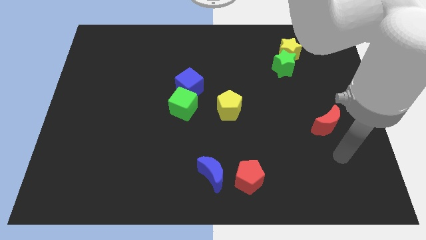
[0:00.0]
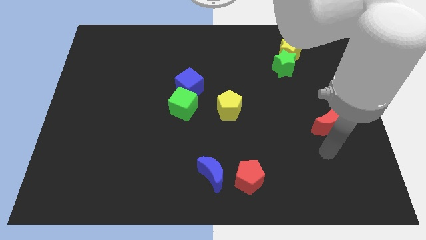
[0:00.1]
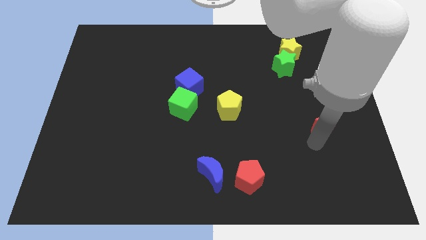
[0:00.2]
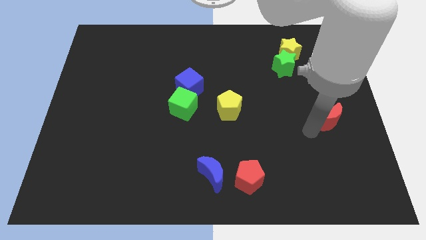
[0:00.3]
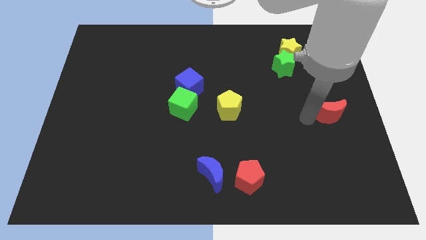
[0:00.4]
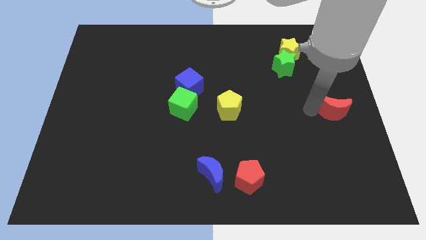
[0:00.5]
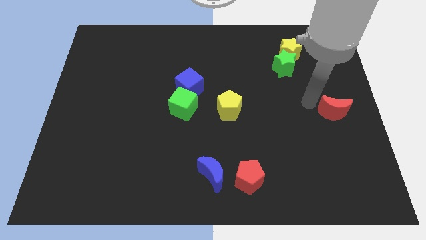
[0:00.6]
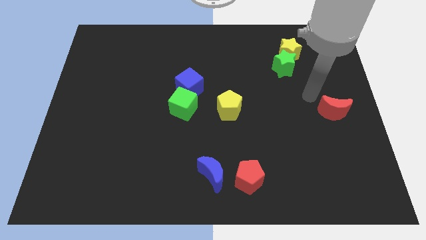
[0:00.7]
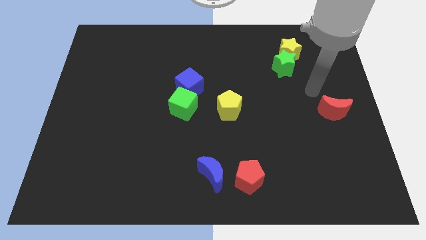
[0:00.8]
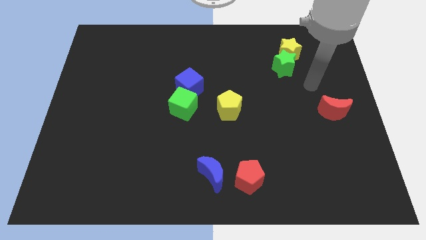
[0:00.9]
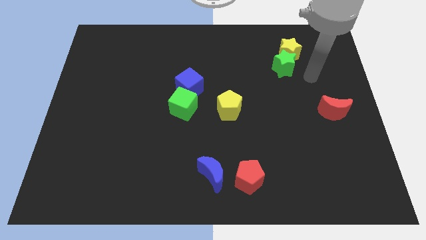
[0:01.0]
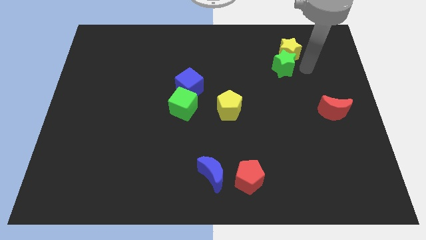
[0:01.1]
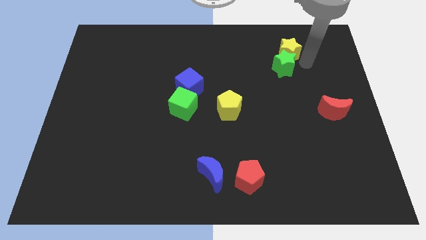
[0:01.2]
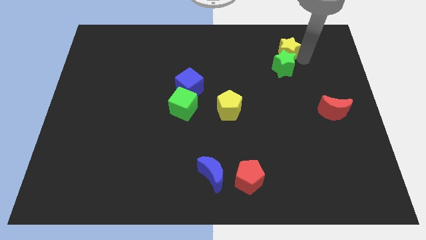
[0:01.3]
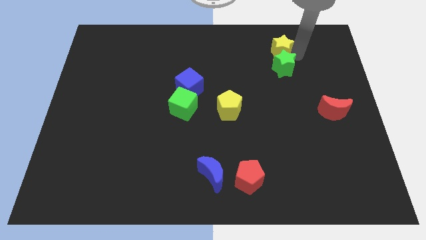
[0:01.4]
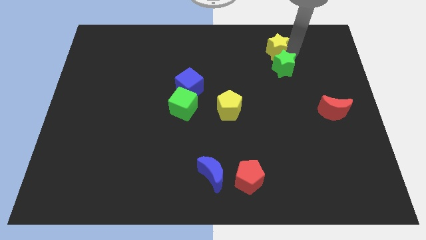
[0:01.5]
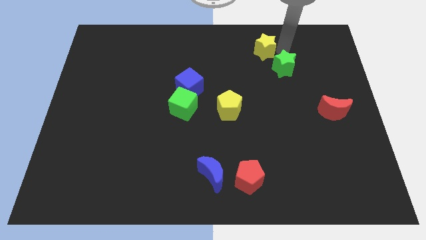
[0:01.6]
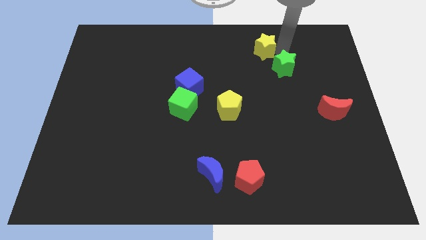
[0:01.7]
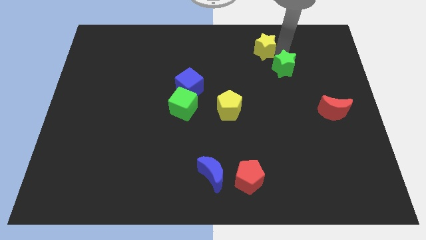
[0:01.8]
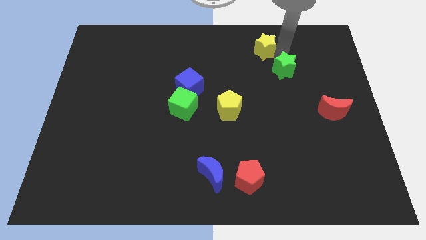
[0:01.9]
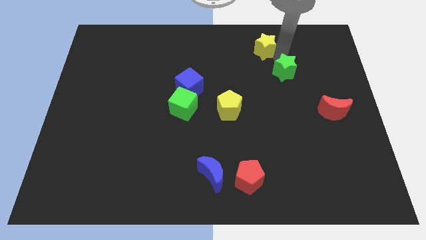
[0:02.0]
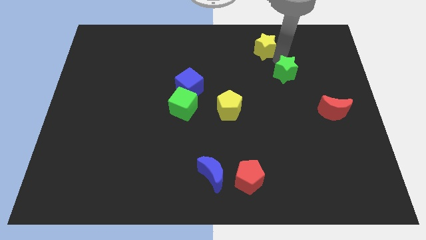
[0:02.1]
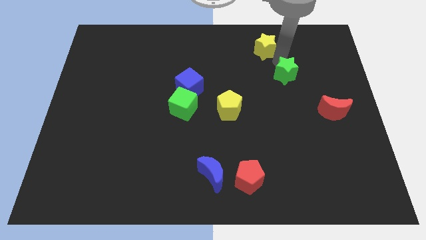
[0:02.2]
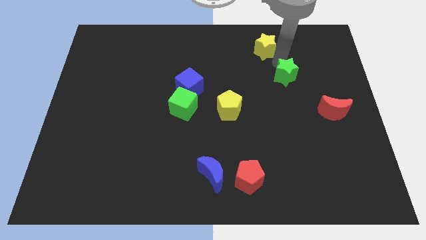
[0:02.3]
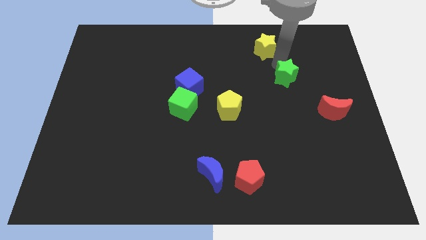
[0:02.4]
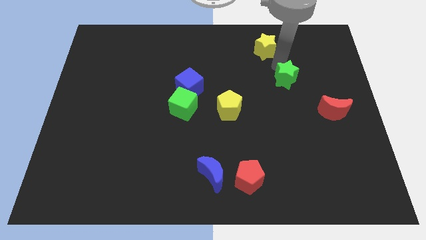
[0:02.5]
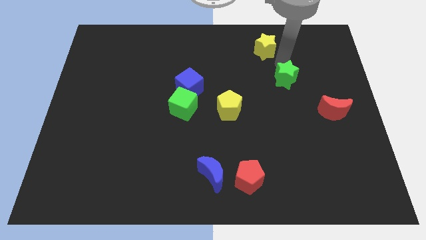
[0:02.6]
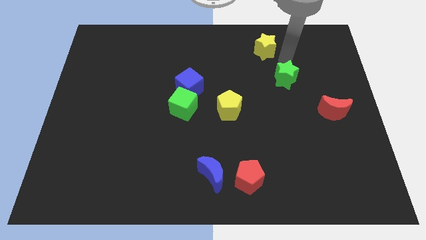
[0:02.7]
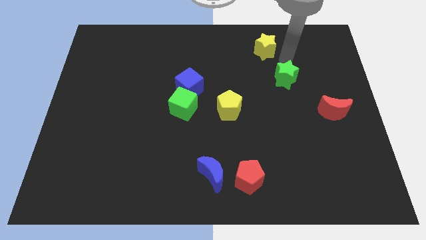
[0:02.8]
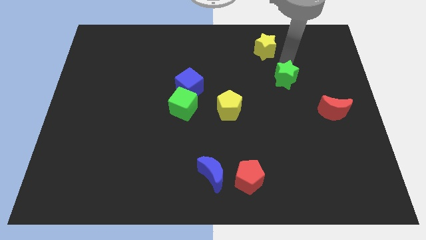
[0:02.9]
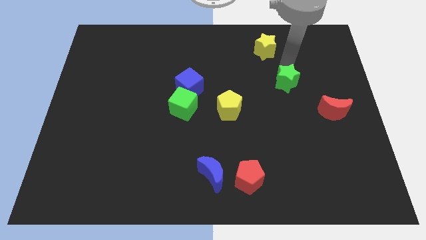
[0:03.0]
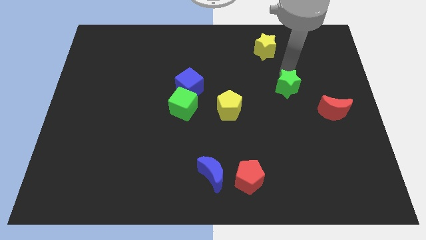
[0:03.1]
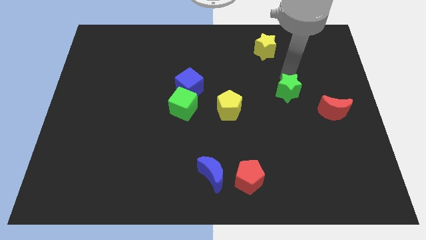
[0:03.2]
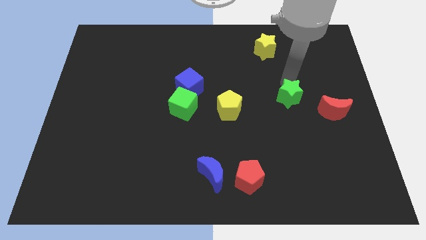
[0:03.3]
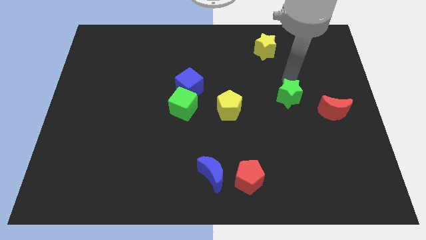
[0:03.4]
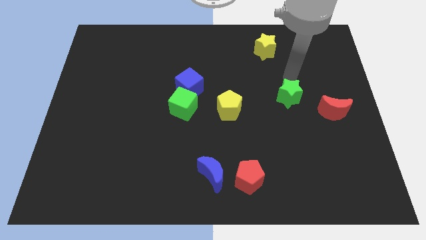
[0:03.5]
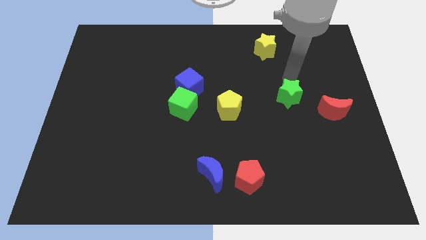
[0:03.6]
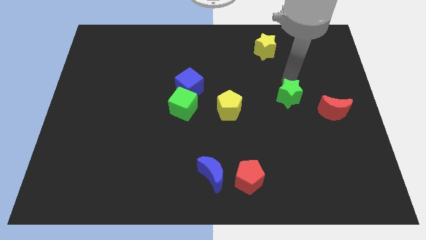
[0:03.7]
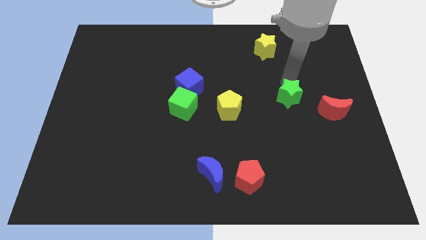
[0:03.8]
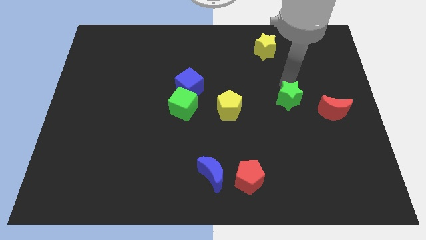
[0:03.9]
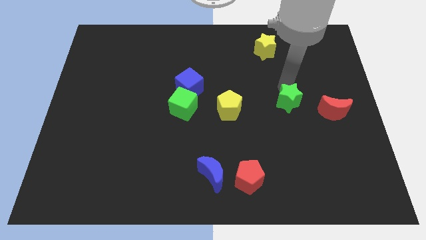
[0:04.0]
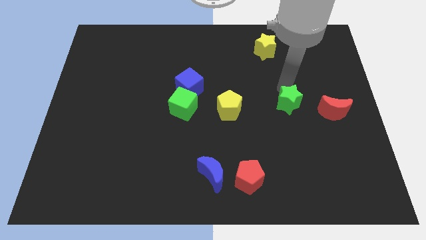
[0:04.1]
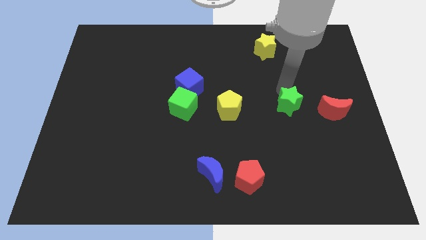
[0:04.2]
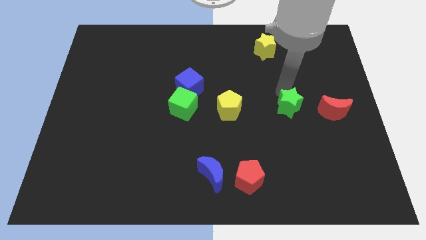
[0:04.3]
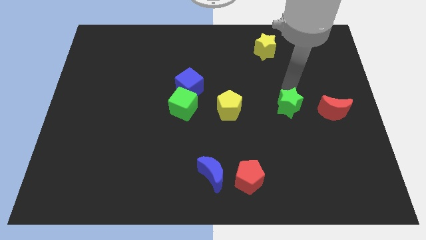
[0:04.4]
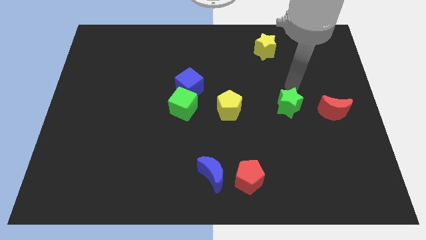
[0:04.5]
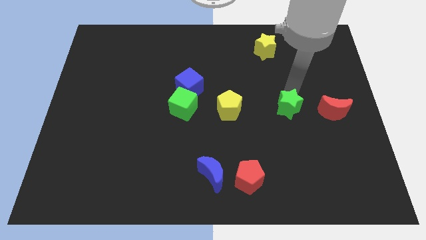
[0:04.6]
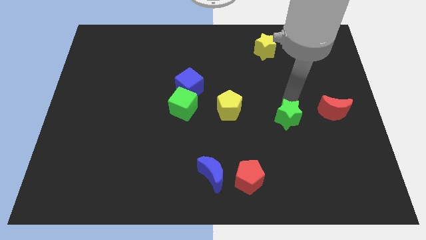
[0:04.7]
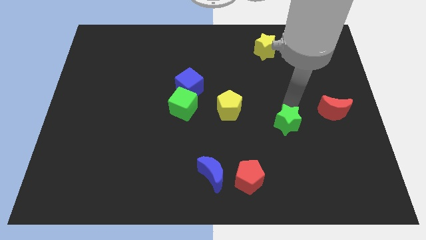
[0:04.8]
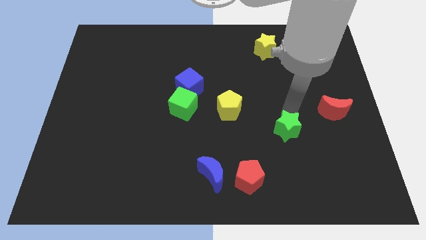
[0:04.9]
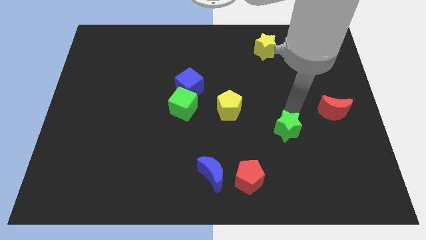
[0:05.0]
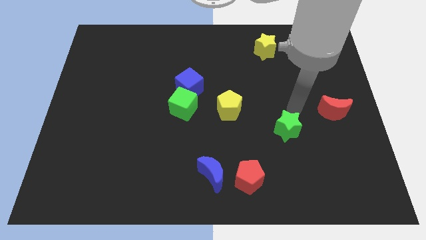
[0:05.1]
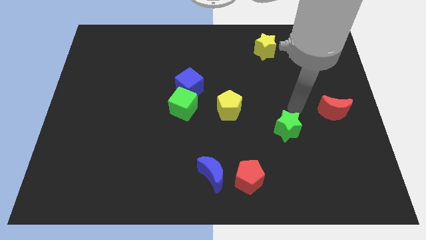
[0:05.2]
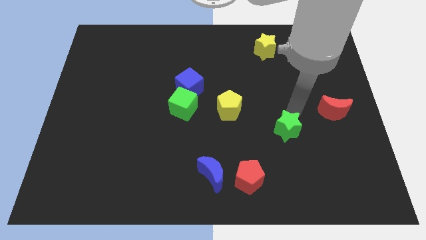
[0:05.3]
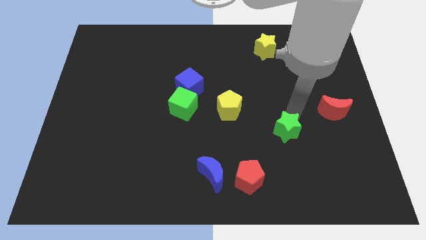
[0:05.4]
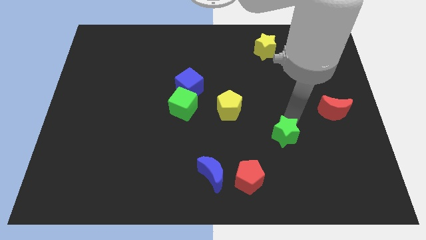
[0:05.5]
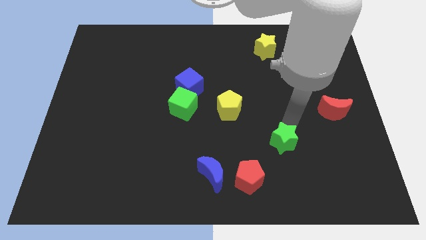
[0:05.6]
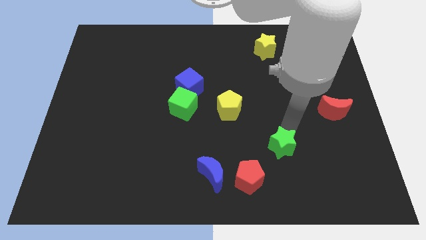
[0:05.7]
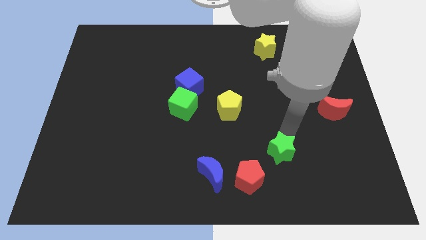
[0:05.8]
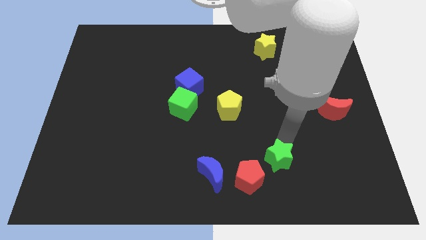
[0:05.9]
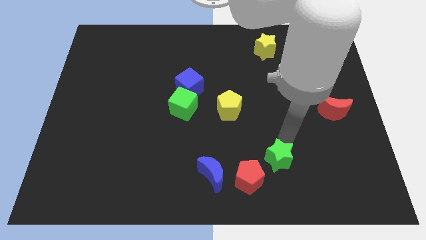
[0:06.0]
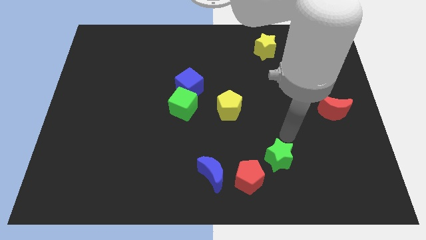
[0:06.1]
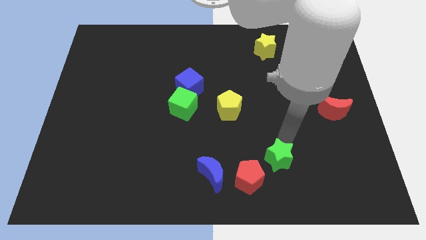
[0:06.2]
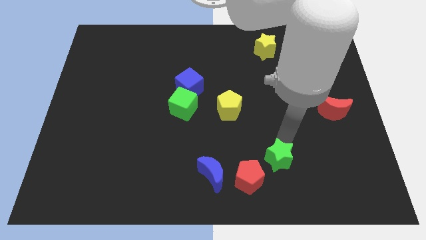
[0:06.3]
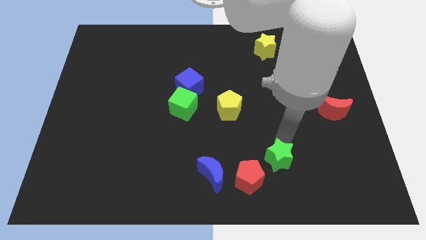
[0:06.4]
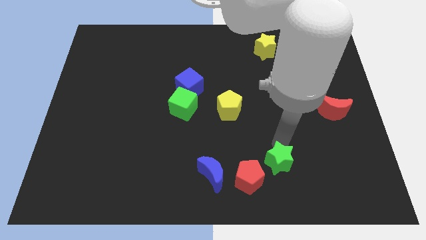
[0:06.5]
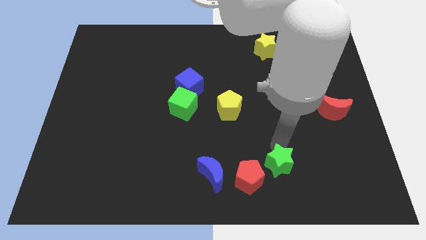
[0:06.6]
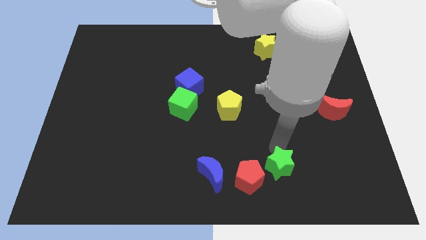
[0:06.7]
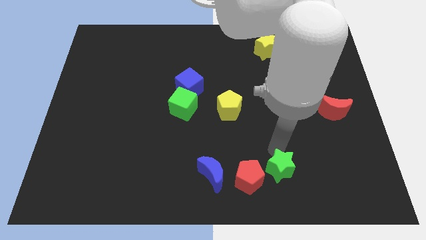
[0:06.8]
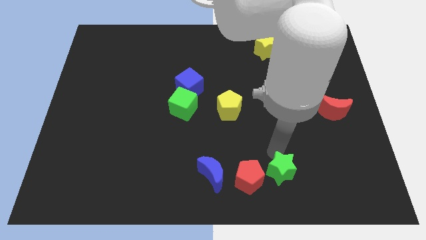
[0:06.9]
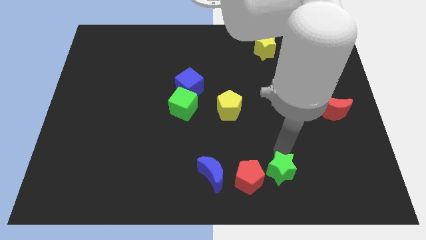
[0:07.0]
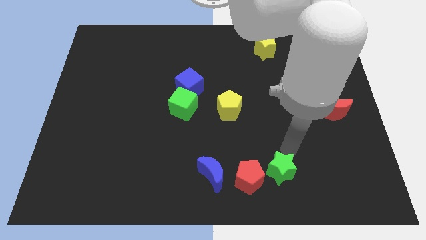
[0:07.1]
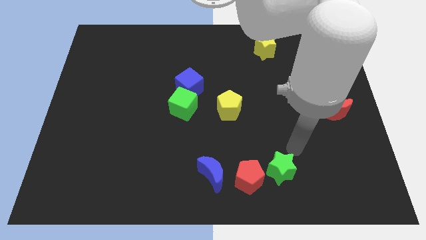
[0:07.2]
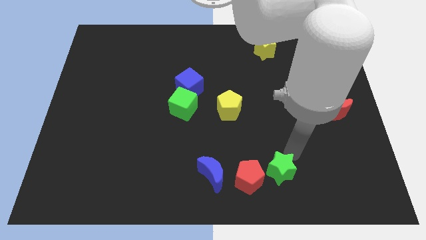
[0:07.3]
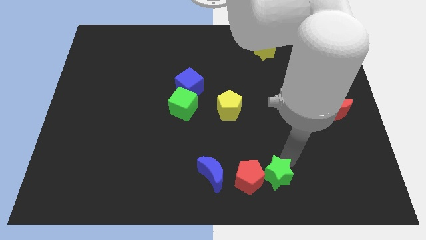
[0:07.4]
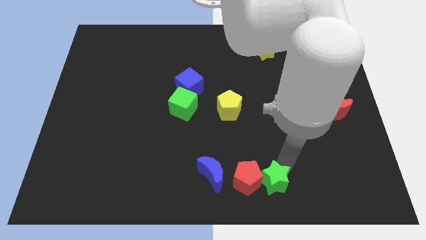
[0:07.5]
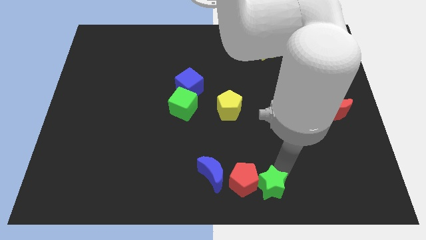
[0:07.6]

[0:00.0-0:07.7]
slide the green star to the bottom
